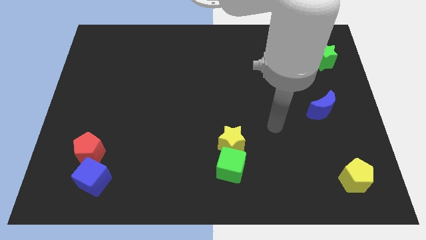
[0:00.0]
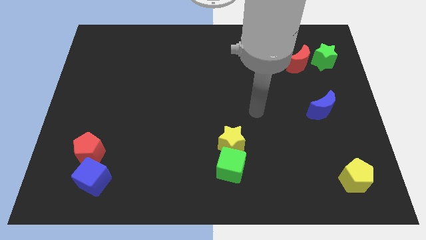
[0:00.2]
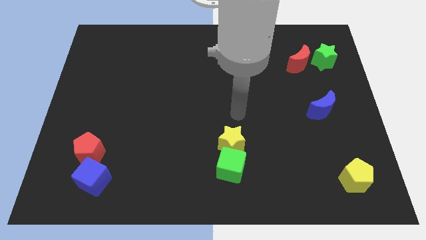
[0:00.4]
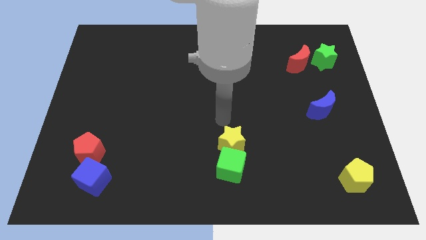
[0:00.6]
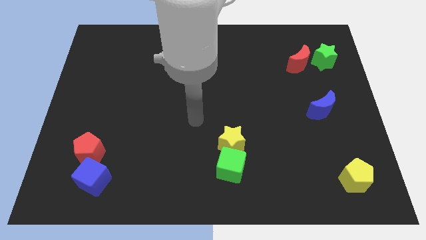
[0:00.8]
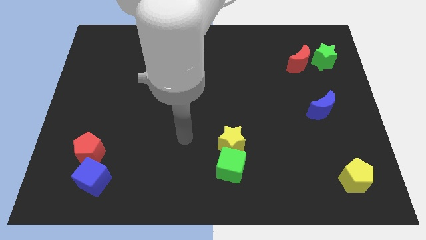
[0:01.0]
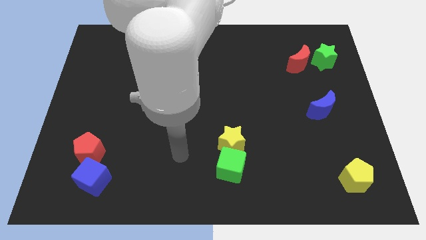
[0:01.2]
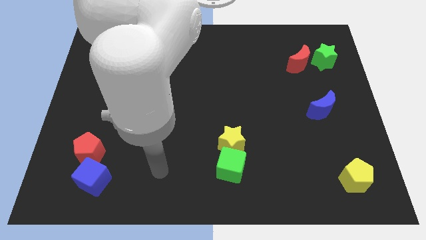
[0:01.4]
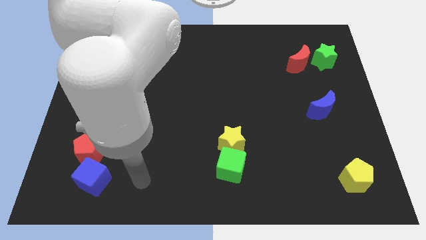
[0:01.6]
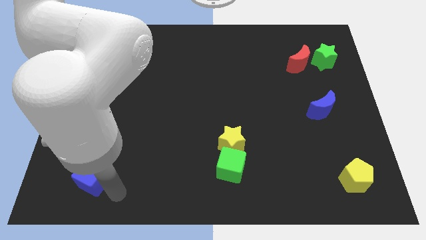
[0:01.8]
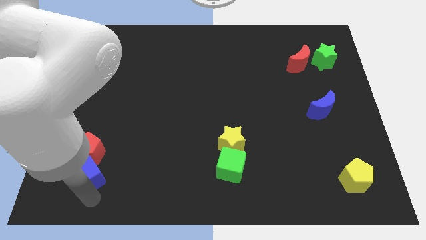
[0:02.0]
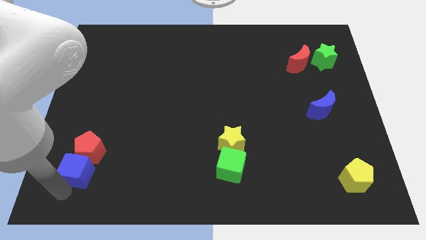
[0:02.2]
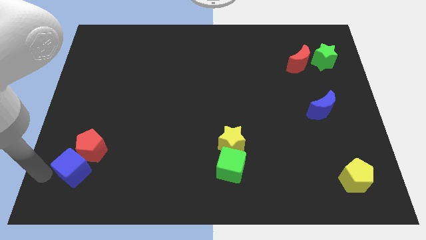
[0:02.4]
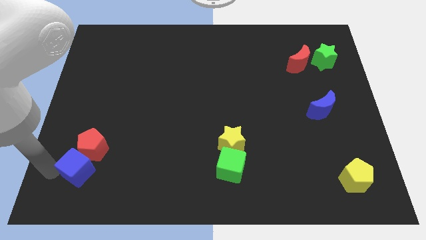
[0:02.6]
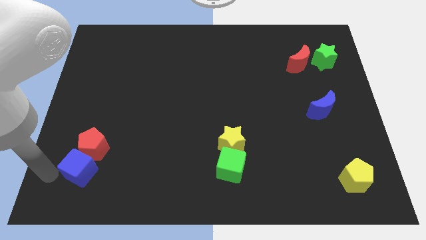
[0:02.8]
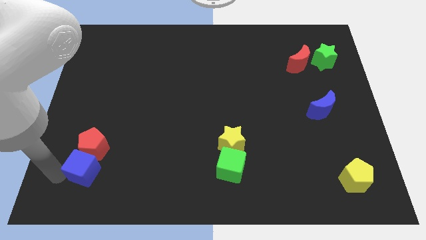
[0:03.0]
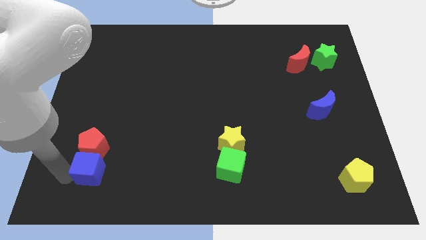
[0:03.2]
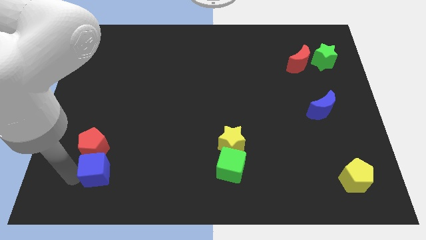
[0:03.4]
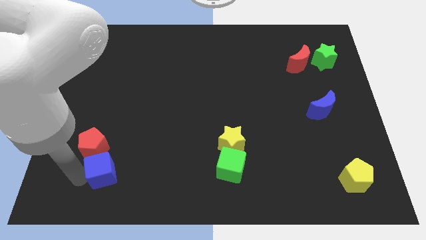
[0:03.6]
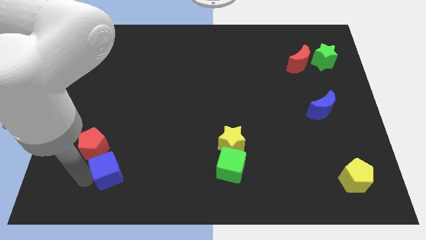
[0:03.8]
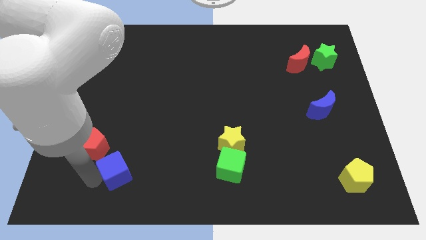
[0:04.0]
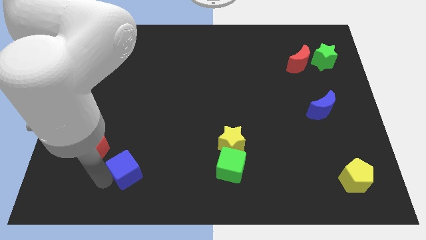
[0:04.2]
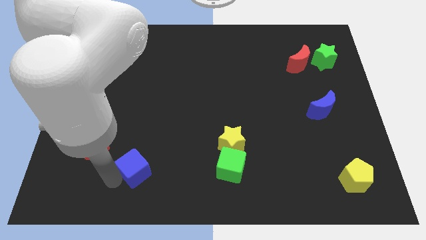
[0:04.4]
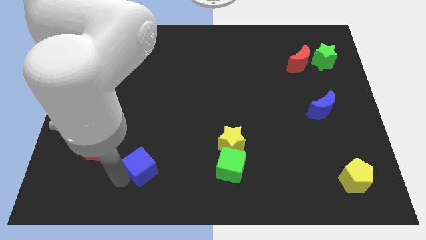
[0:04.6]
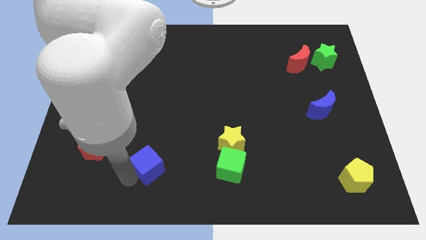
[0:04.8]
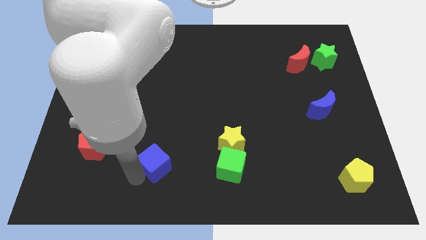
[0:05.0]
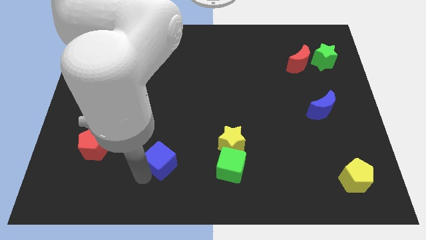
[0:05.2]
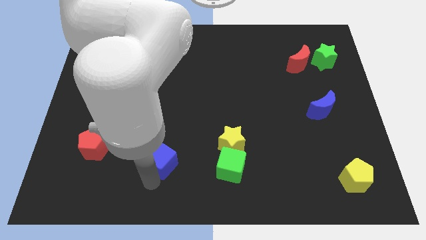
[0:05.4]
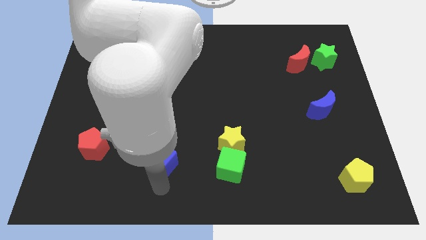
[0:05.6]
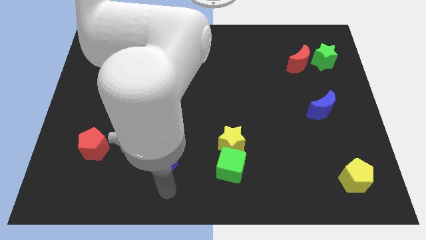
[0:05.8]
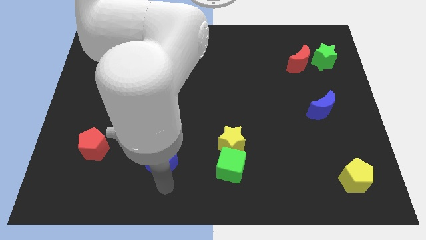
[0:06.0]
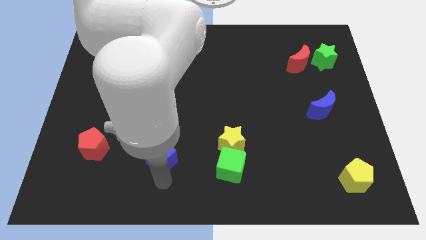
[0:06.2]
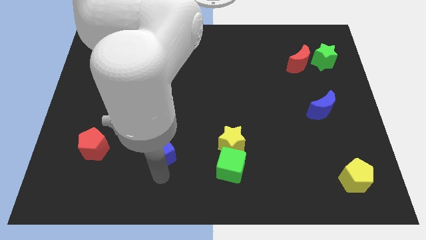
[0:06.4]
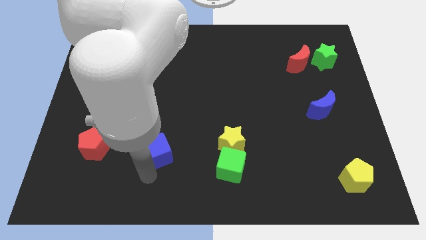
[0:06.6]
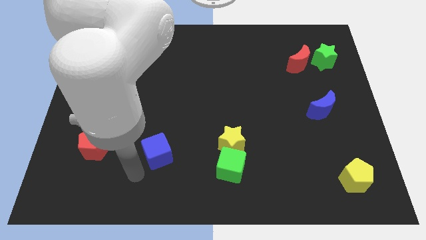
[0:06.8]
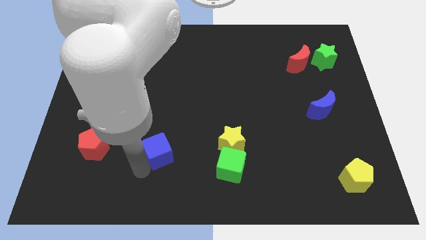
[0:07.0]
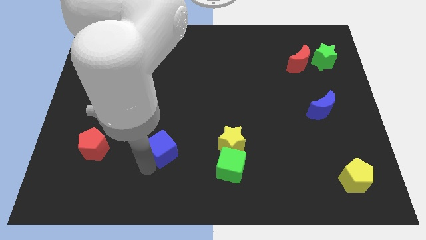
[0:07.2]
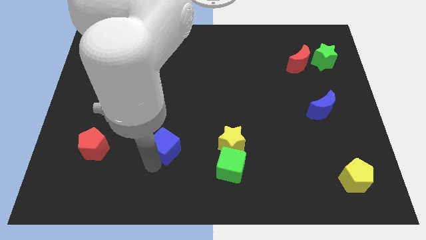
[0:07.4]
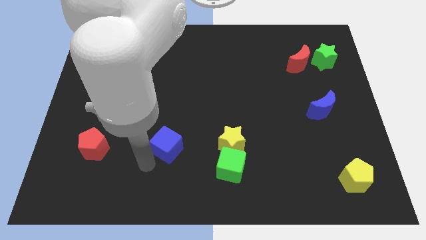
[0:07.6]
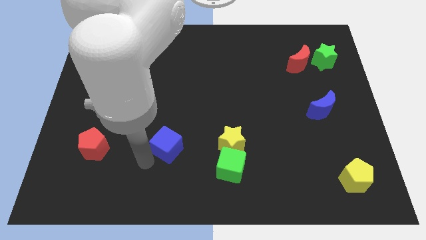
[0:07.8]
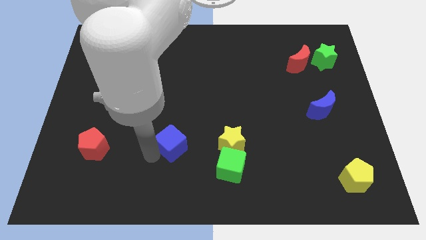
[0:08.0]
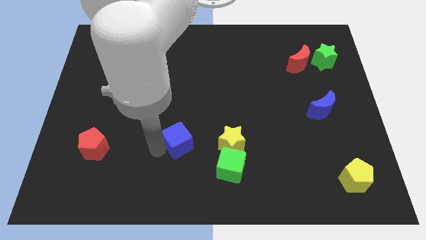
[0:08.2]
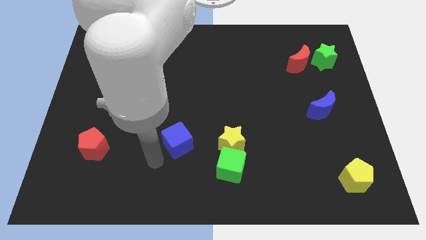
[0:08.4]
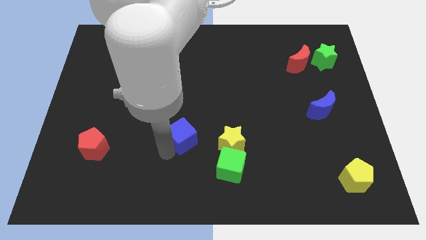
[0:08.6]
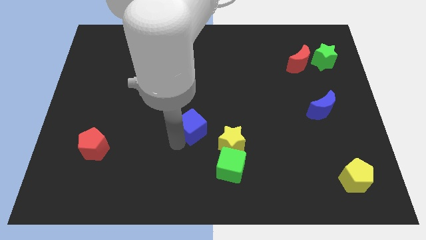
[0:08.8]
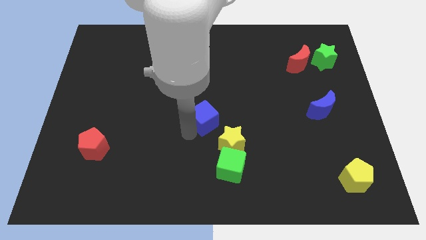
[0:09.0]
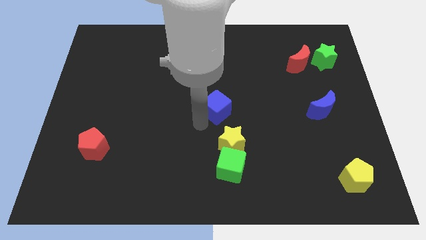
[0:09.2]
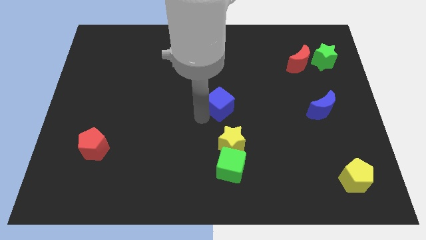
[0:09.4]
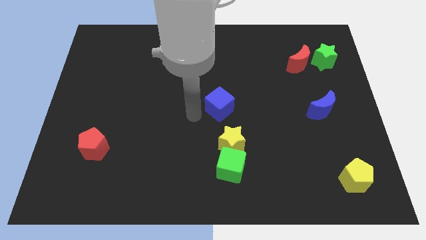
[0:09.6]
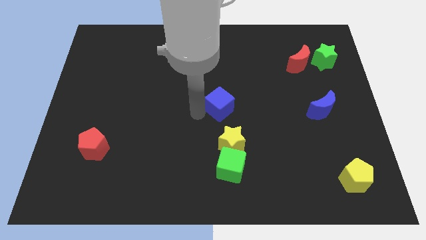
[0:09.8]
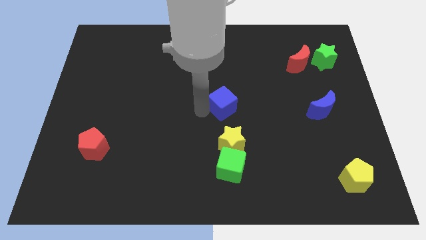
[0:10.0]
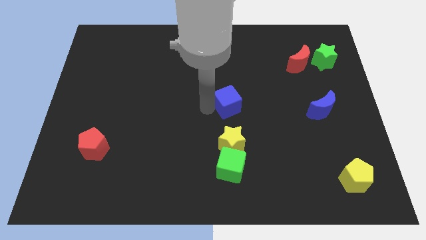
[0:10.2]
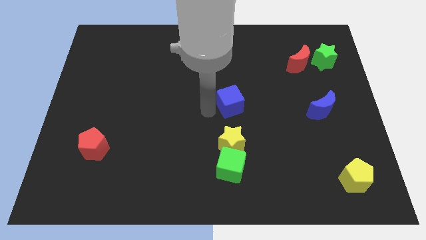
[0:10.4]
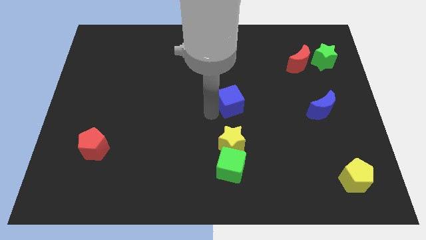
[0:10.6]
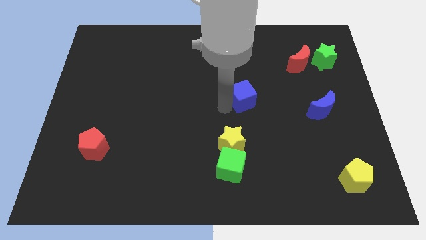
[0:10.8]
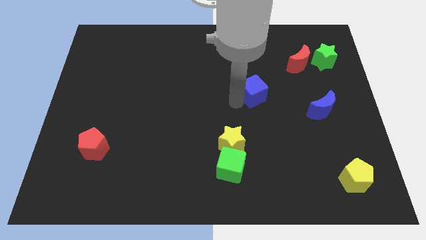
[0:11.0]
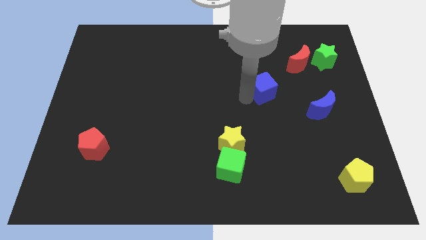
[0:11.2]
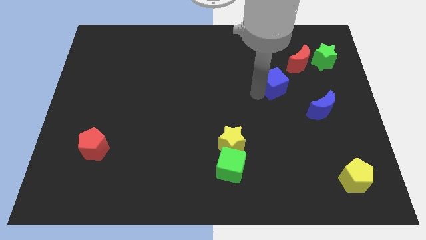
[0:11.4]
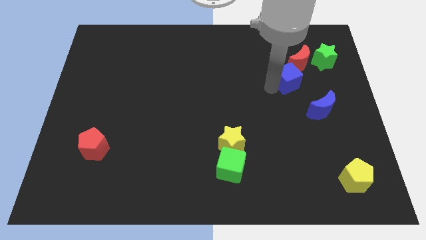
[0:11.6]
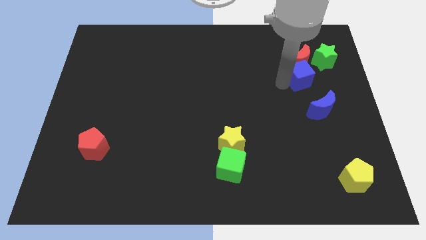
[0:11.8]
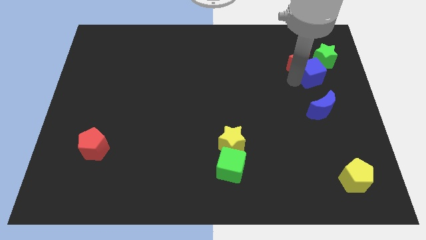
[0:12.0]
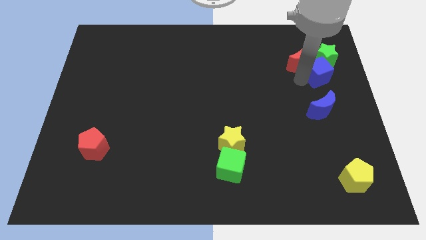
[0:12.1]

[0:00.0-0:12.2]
push the blue cube towards the green star

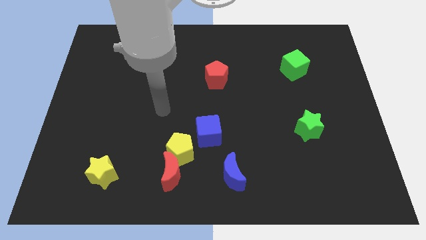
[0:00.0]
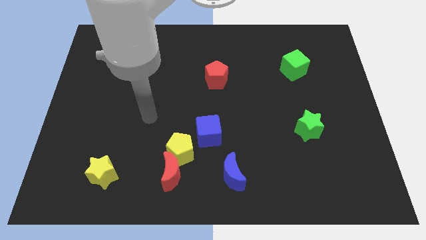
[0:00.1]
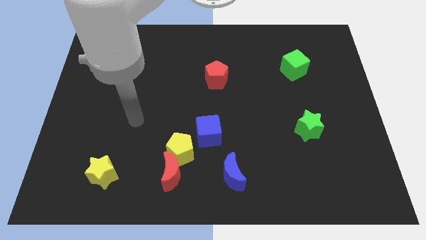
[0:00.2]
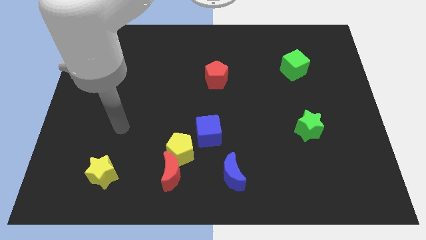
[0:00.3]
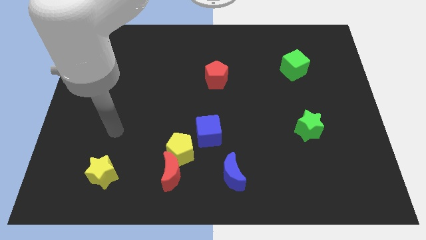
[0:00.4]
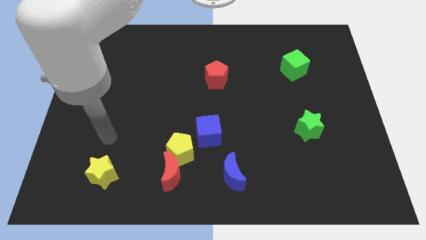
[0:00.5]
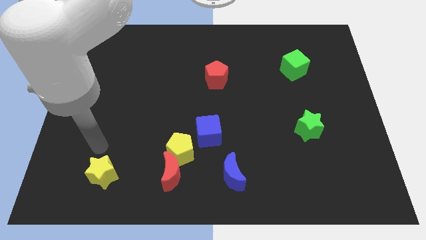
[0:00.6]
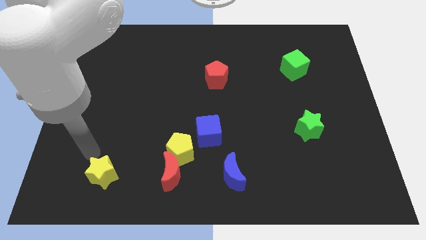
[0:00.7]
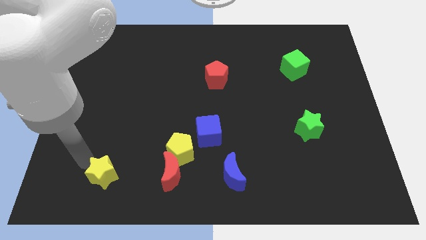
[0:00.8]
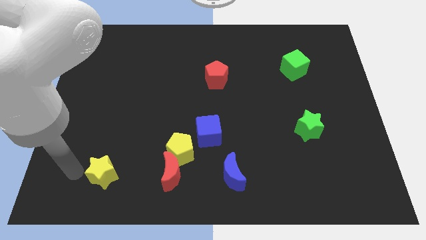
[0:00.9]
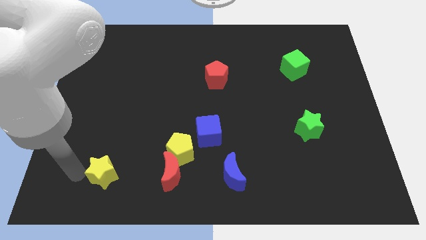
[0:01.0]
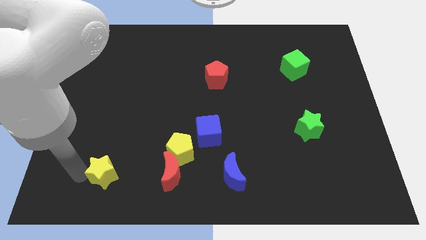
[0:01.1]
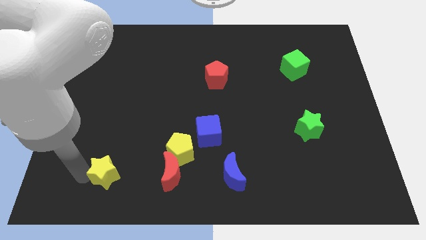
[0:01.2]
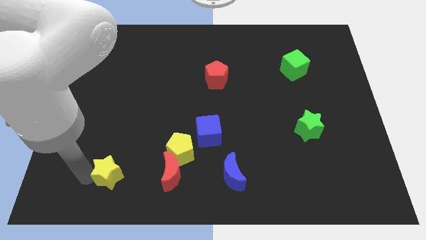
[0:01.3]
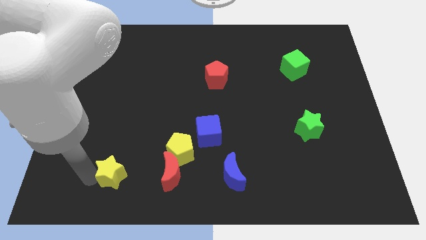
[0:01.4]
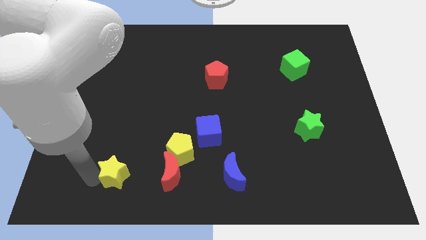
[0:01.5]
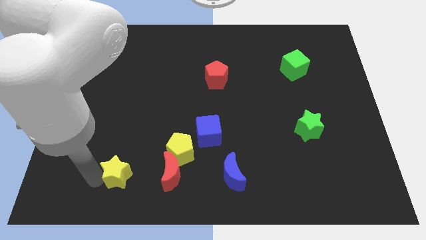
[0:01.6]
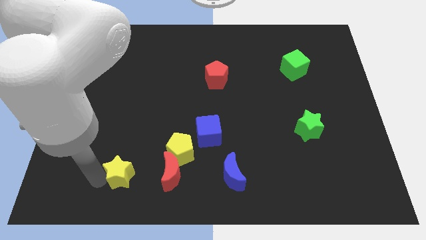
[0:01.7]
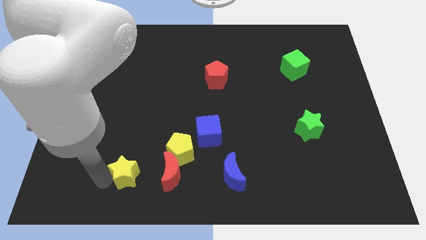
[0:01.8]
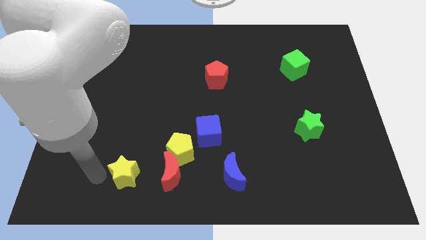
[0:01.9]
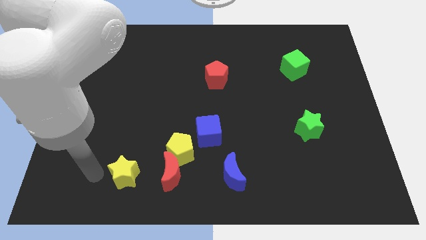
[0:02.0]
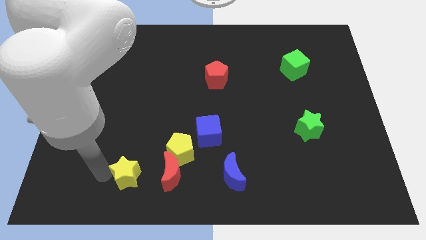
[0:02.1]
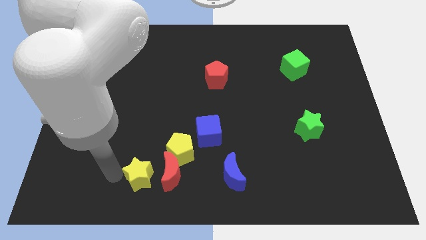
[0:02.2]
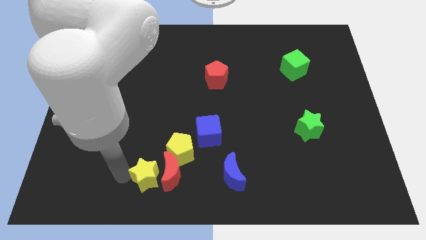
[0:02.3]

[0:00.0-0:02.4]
push the yellow star towards the red moon
